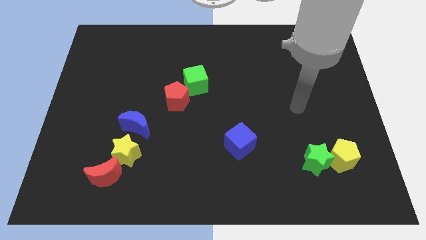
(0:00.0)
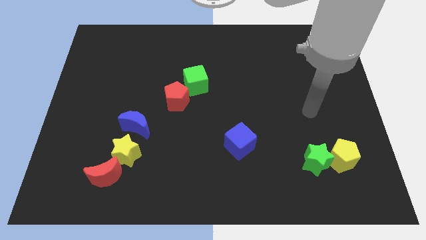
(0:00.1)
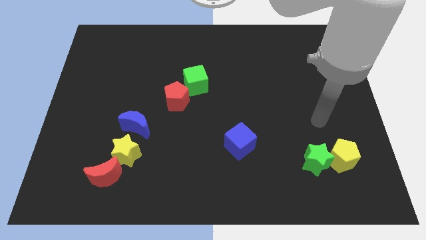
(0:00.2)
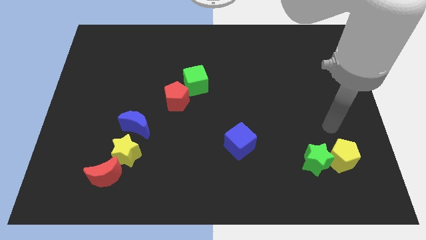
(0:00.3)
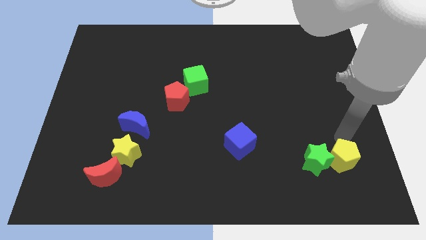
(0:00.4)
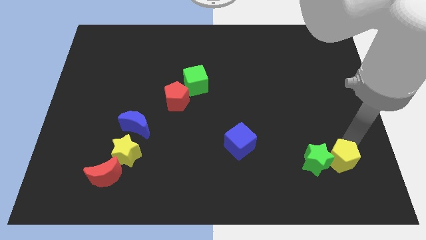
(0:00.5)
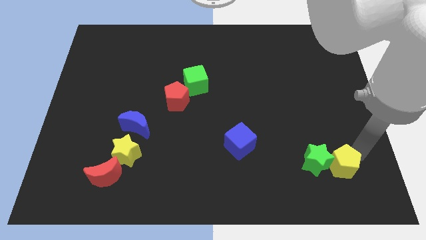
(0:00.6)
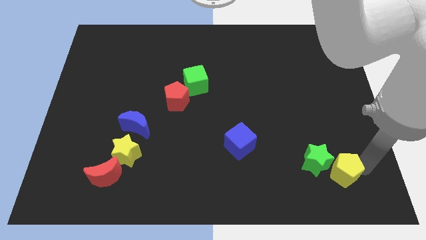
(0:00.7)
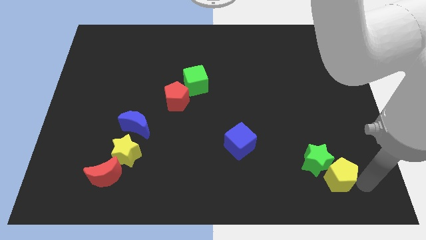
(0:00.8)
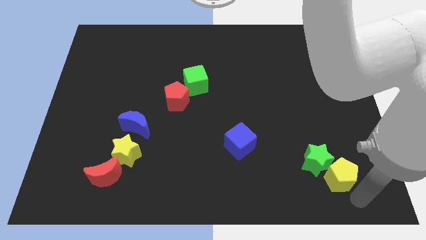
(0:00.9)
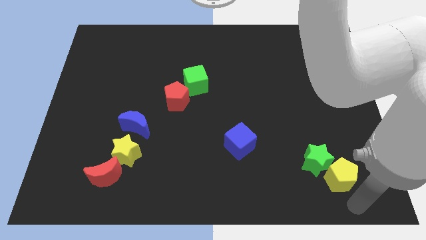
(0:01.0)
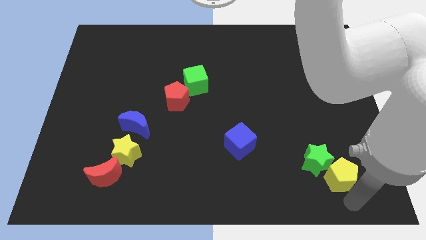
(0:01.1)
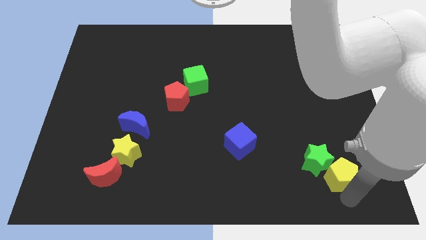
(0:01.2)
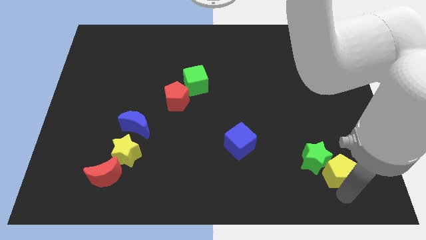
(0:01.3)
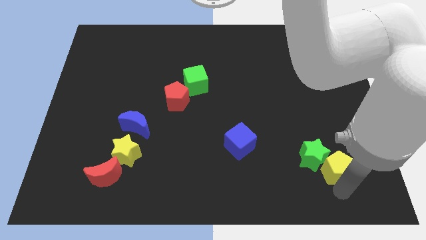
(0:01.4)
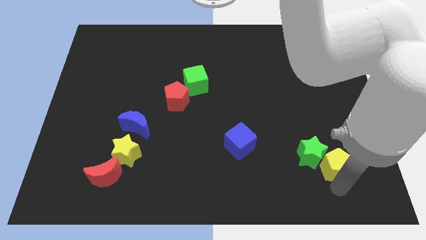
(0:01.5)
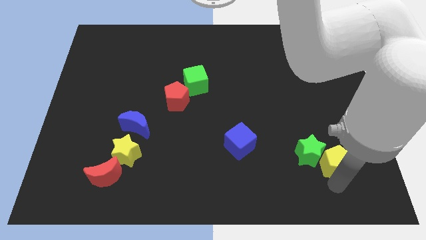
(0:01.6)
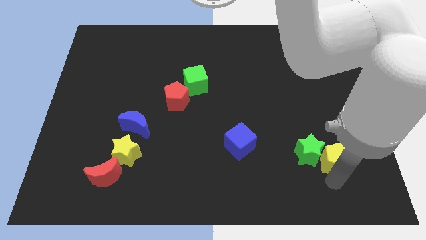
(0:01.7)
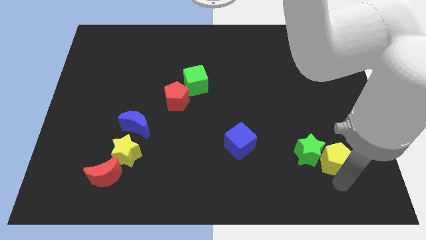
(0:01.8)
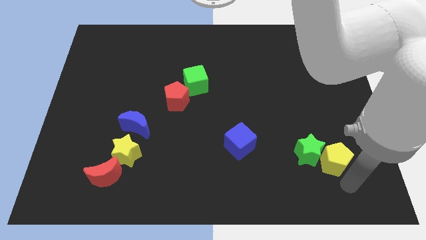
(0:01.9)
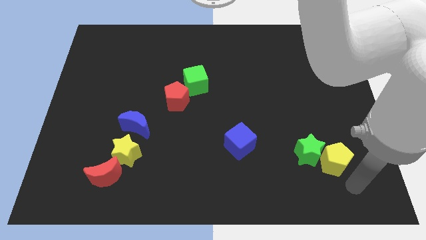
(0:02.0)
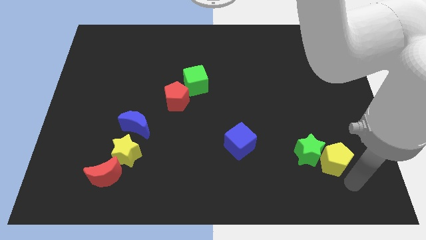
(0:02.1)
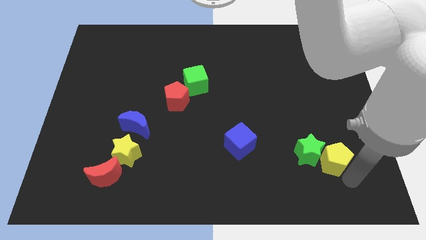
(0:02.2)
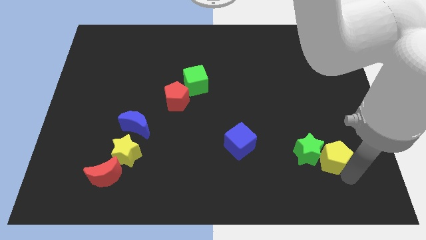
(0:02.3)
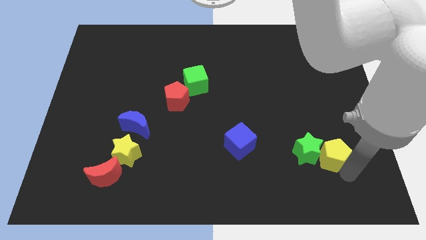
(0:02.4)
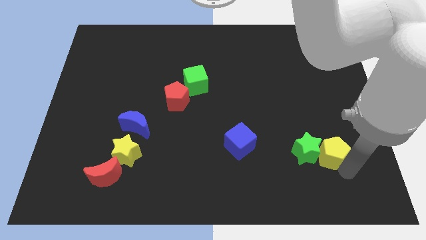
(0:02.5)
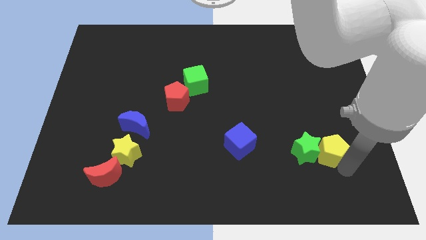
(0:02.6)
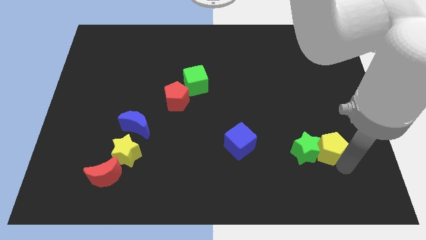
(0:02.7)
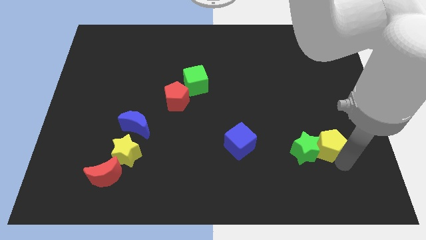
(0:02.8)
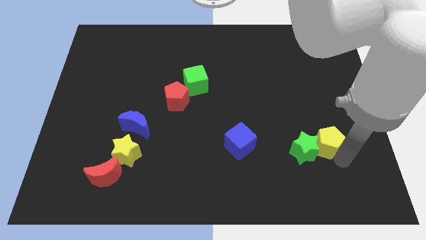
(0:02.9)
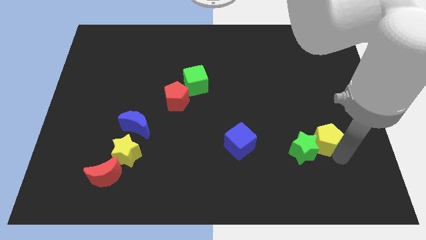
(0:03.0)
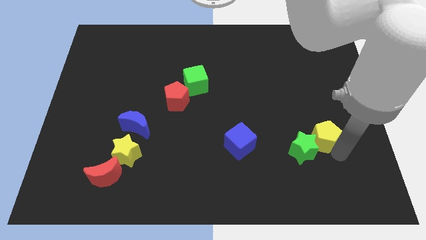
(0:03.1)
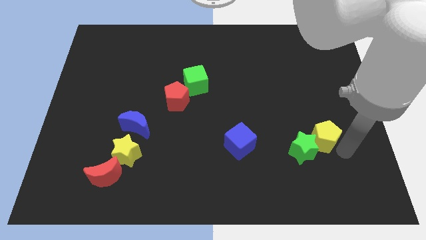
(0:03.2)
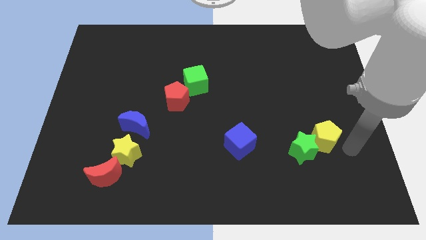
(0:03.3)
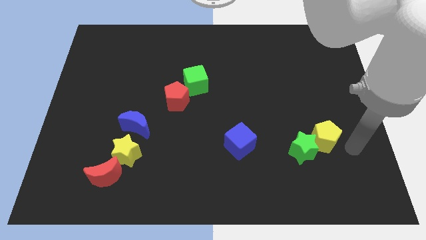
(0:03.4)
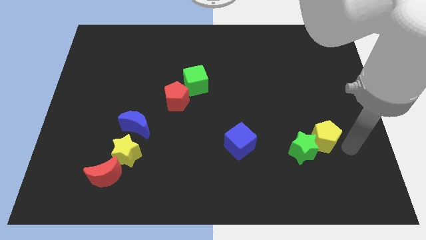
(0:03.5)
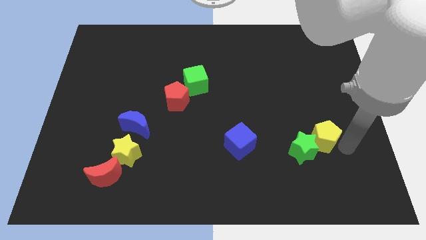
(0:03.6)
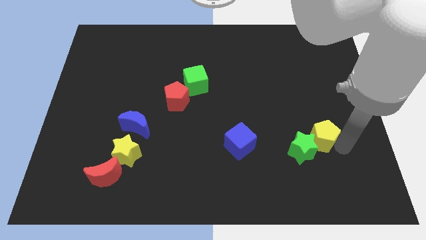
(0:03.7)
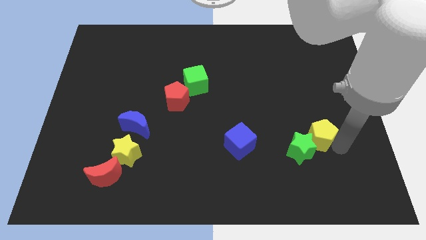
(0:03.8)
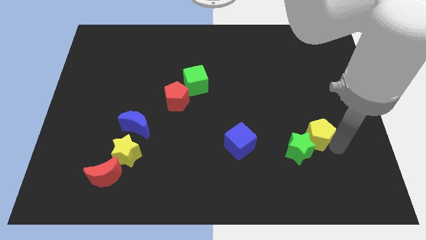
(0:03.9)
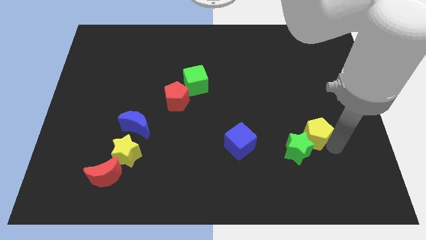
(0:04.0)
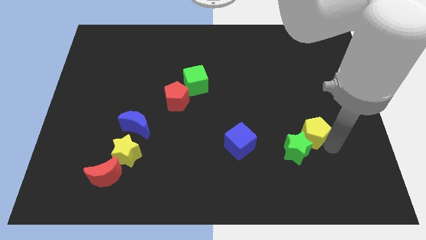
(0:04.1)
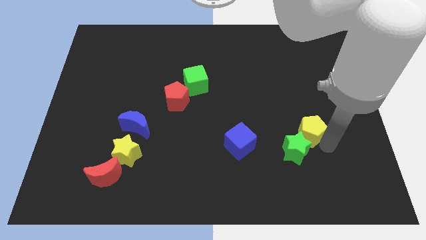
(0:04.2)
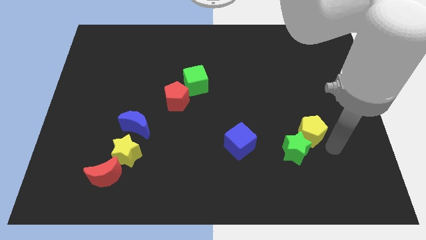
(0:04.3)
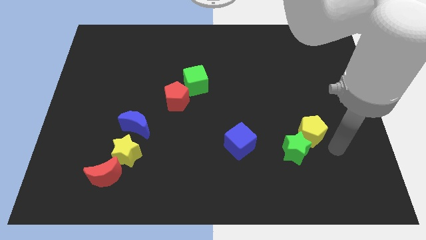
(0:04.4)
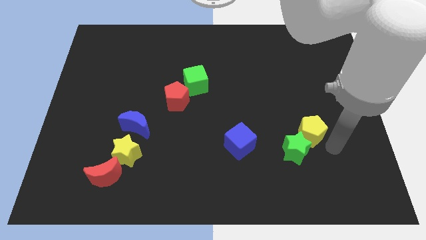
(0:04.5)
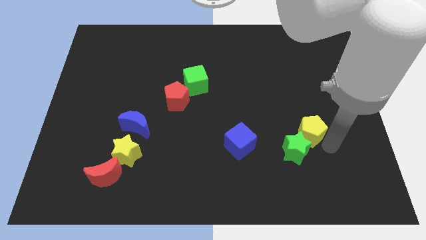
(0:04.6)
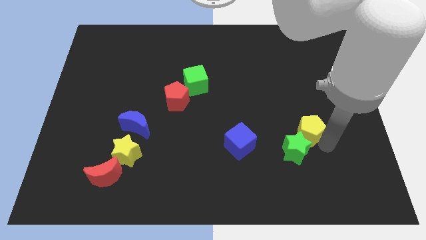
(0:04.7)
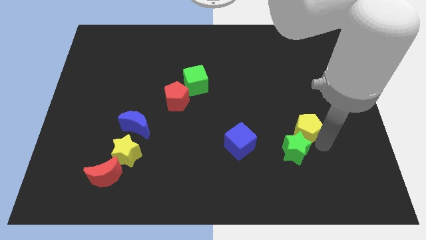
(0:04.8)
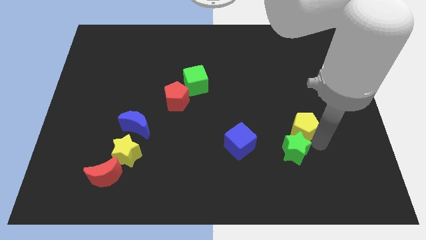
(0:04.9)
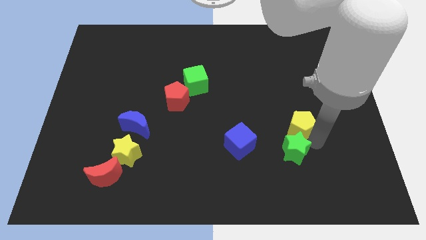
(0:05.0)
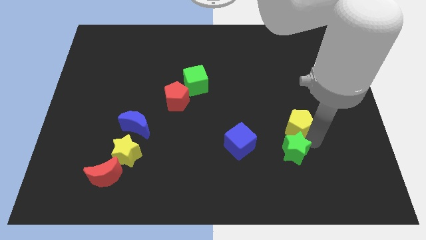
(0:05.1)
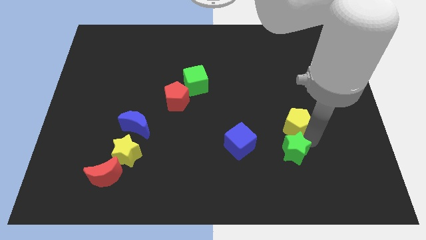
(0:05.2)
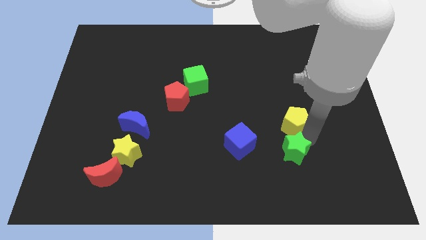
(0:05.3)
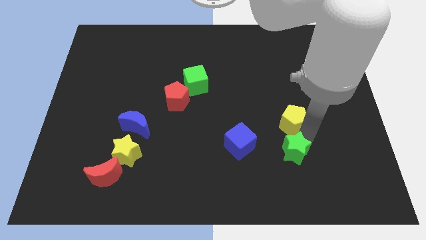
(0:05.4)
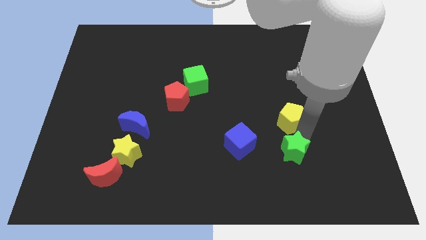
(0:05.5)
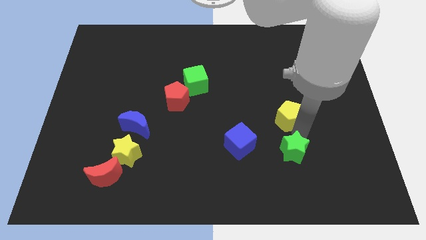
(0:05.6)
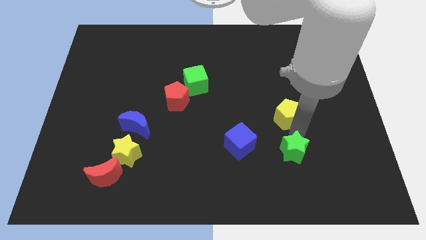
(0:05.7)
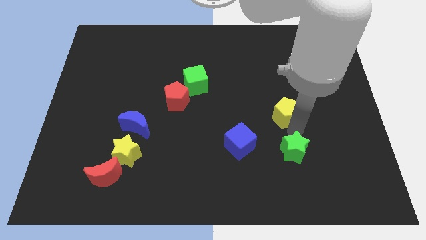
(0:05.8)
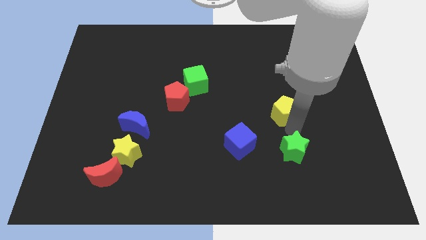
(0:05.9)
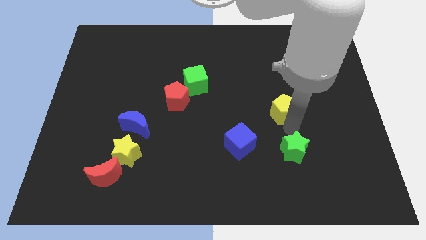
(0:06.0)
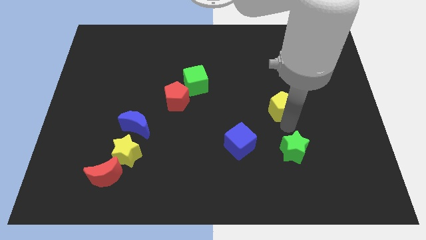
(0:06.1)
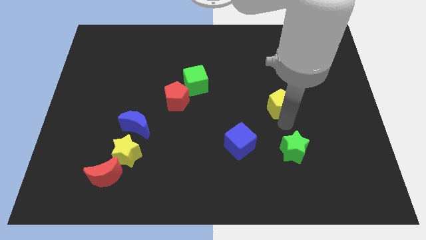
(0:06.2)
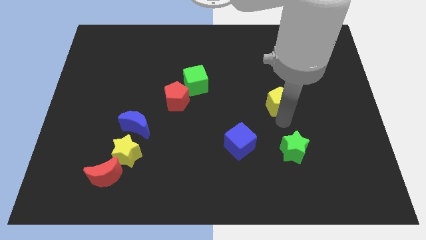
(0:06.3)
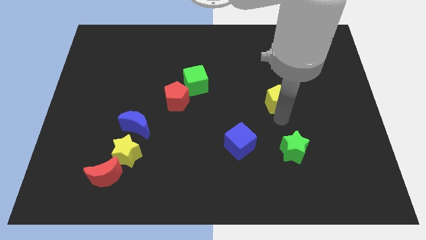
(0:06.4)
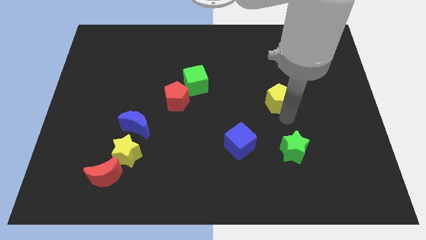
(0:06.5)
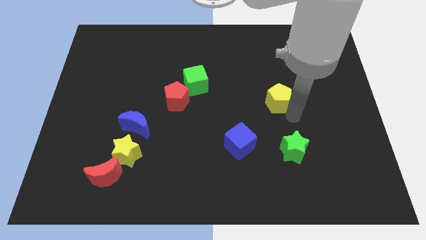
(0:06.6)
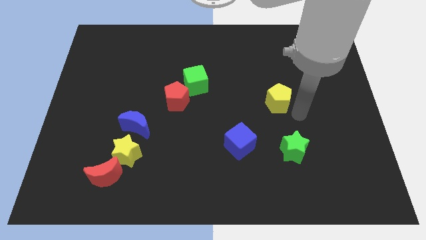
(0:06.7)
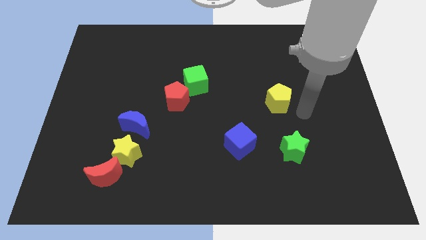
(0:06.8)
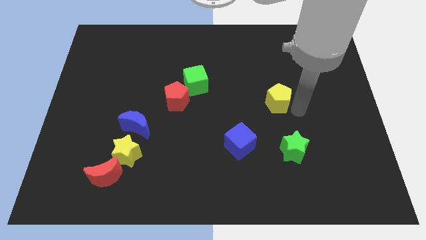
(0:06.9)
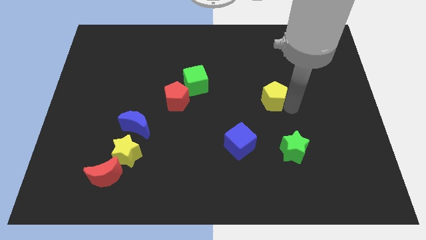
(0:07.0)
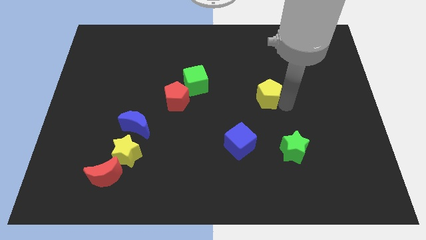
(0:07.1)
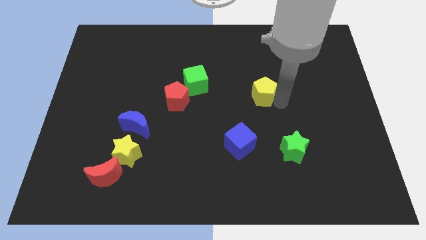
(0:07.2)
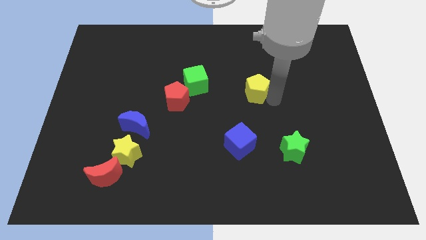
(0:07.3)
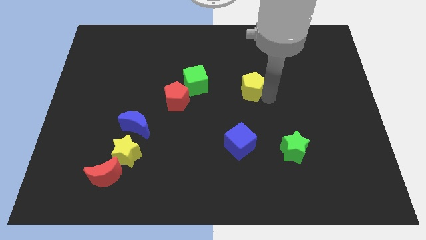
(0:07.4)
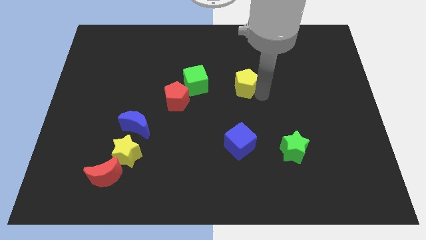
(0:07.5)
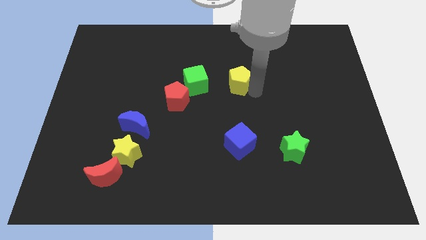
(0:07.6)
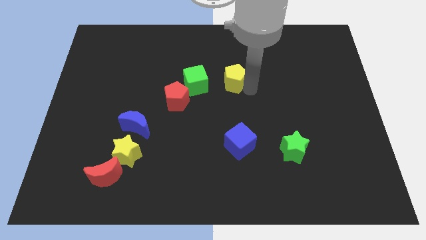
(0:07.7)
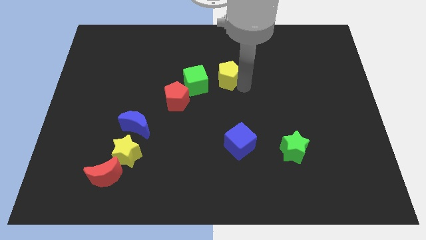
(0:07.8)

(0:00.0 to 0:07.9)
slide the yellow pentagon diagonally up and to the right of the green cube
